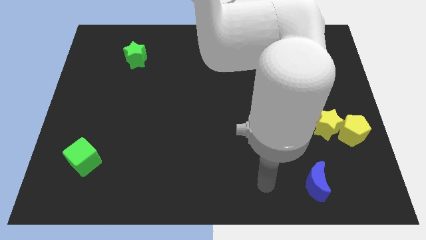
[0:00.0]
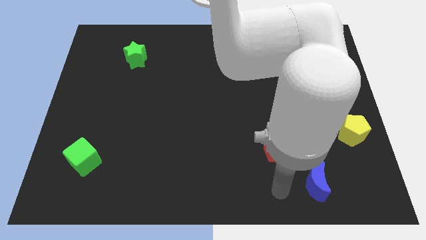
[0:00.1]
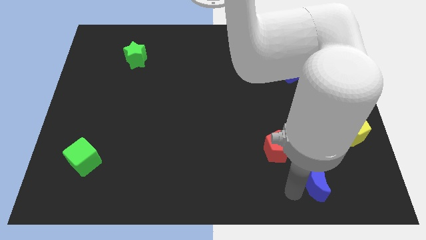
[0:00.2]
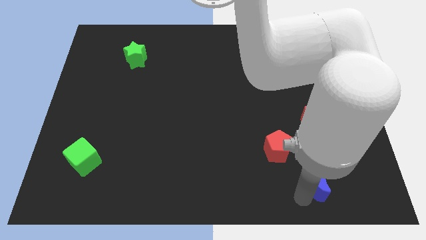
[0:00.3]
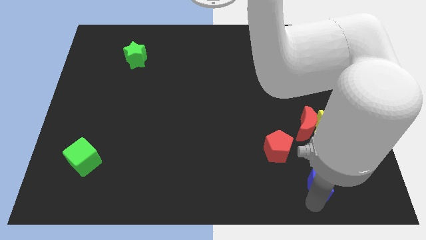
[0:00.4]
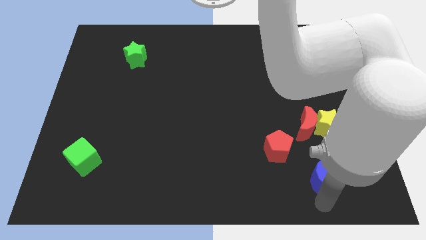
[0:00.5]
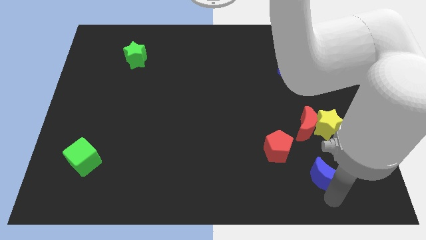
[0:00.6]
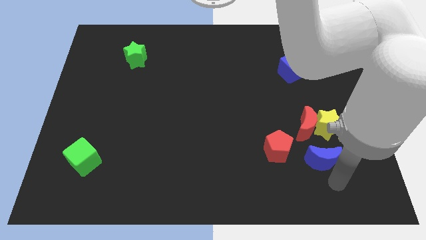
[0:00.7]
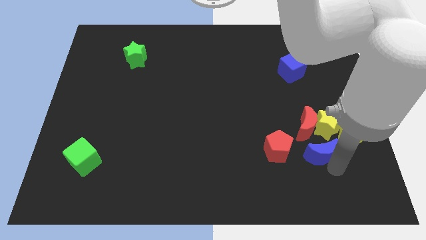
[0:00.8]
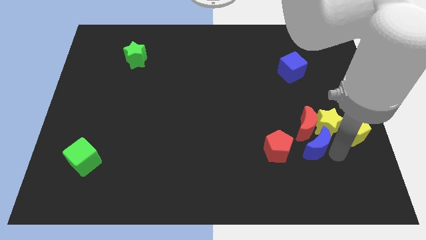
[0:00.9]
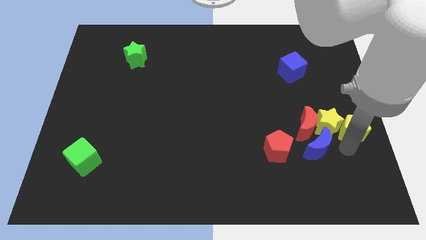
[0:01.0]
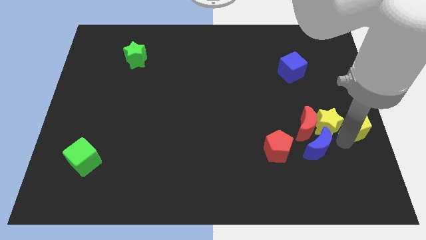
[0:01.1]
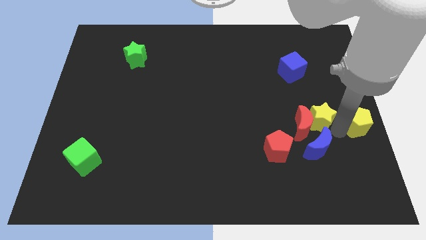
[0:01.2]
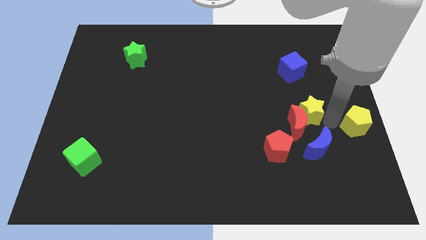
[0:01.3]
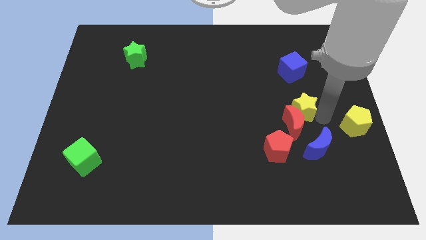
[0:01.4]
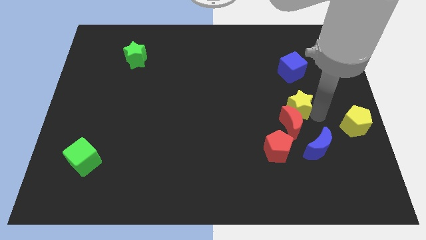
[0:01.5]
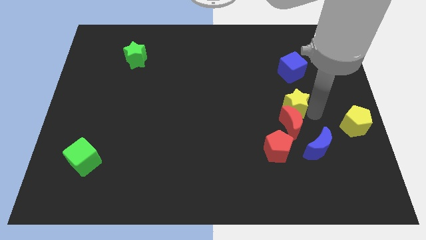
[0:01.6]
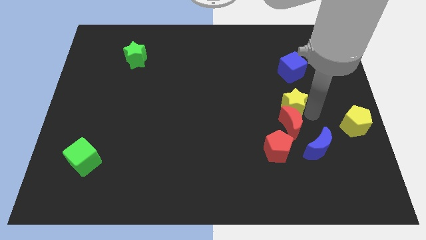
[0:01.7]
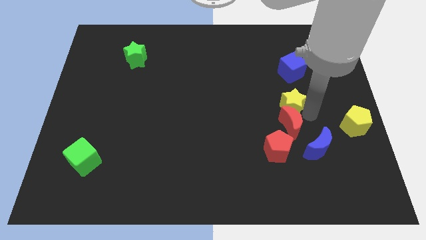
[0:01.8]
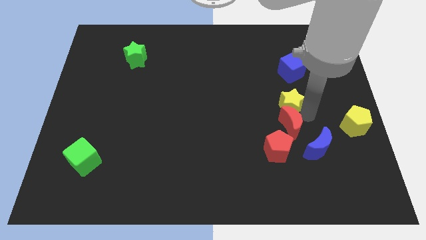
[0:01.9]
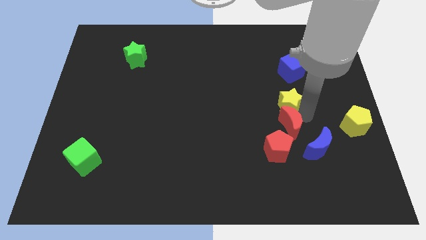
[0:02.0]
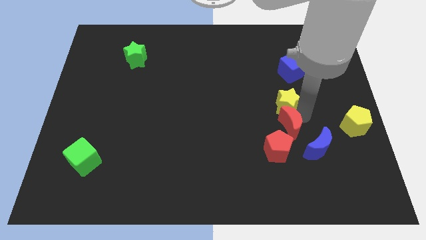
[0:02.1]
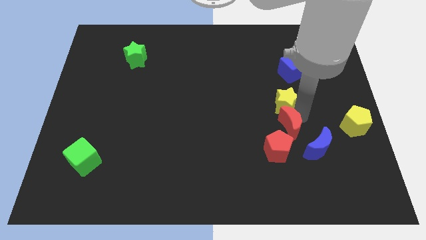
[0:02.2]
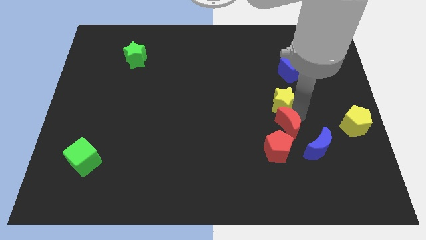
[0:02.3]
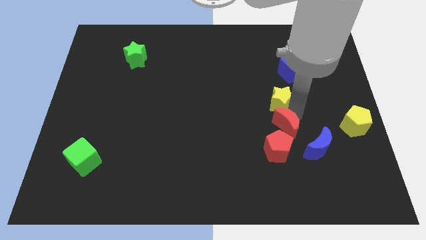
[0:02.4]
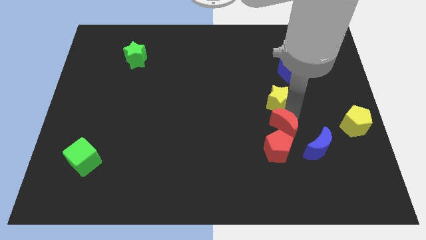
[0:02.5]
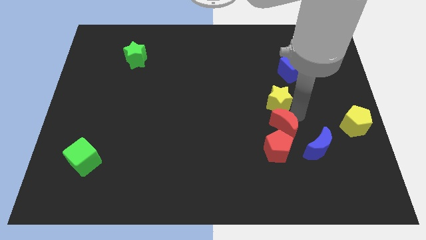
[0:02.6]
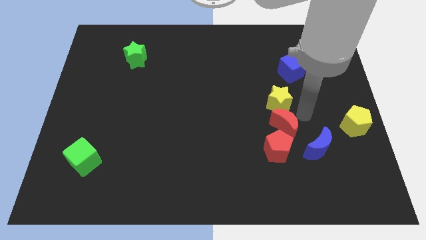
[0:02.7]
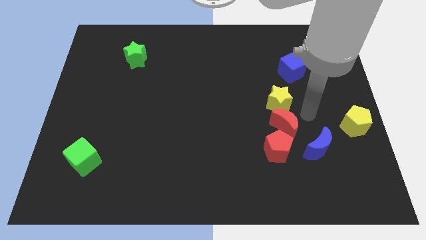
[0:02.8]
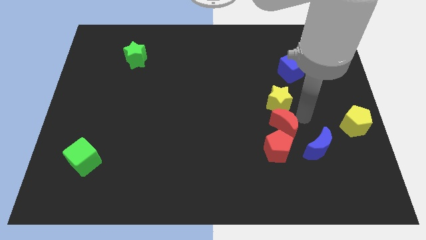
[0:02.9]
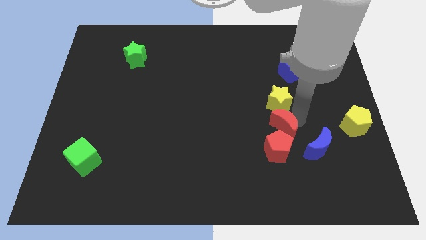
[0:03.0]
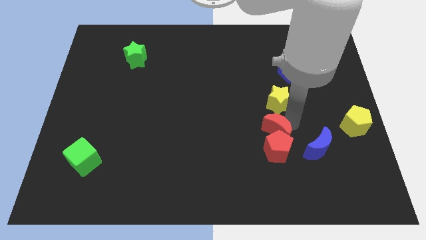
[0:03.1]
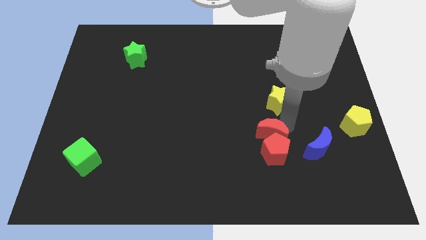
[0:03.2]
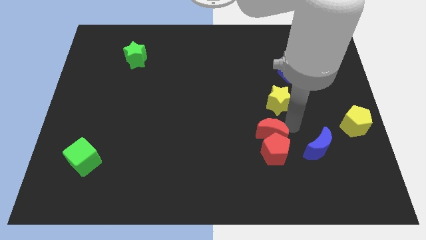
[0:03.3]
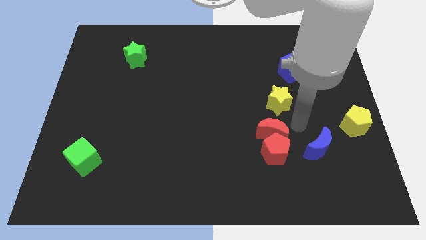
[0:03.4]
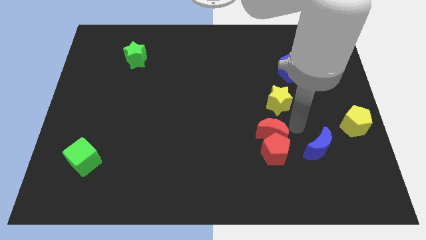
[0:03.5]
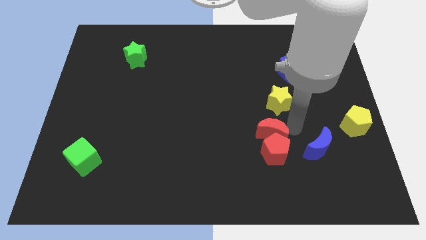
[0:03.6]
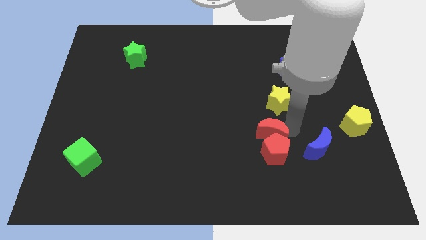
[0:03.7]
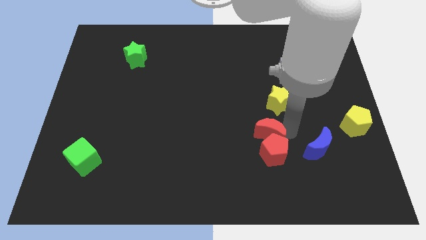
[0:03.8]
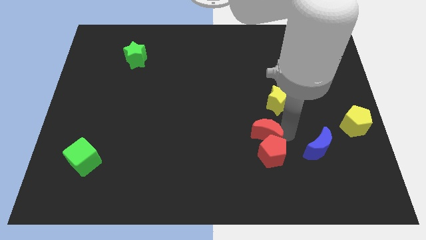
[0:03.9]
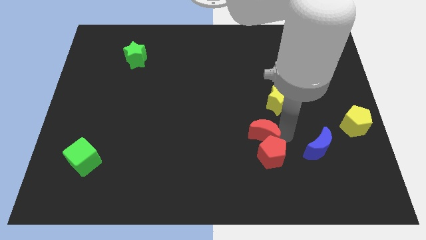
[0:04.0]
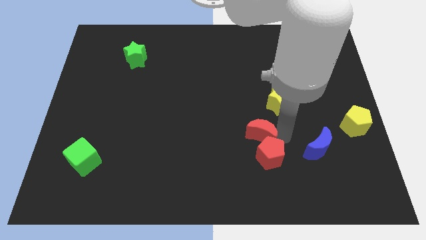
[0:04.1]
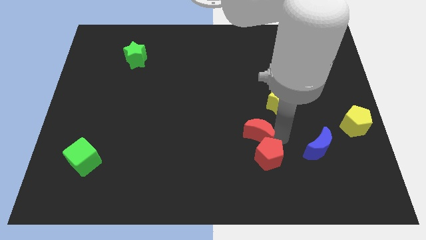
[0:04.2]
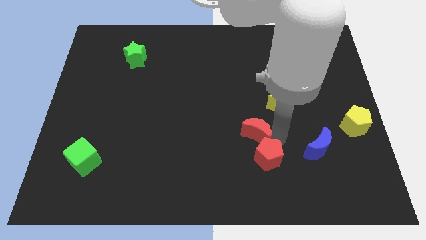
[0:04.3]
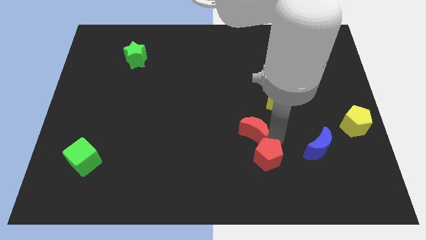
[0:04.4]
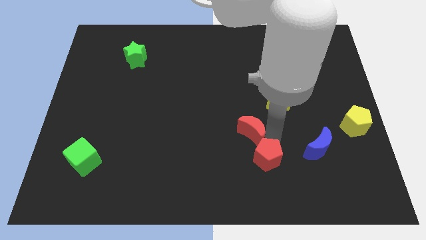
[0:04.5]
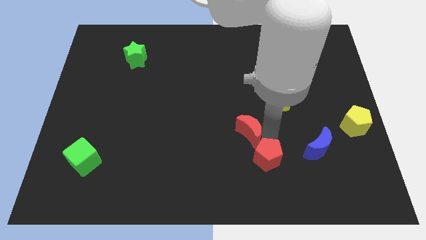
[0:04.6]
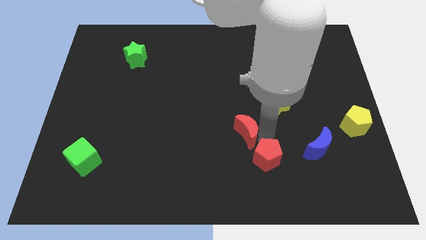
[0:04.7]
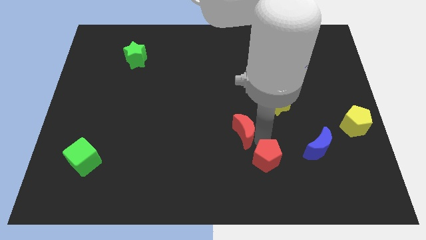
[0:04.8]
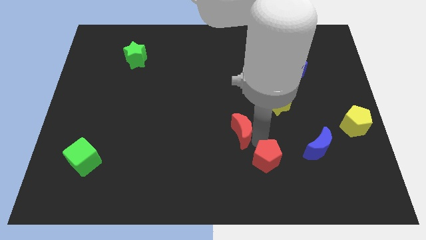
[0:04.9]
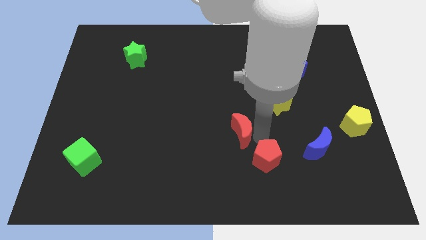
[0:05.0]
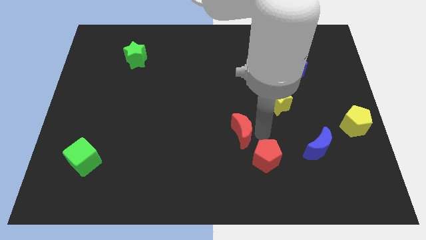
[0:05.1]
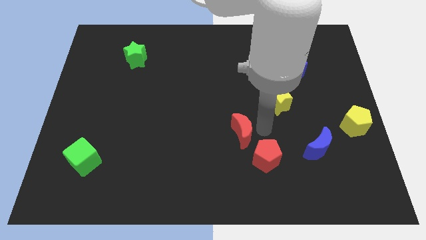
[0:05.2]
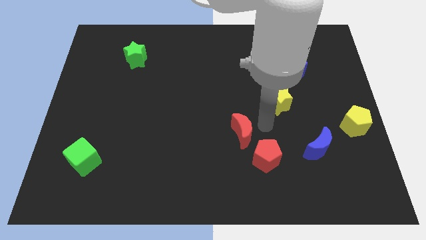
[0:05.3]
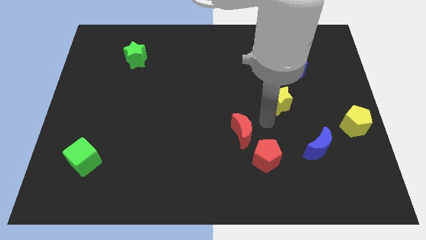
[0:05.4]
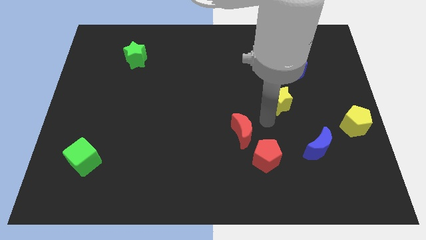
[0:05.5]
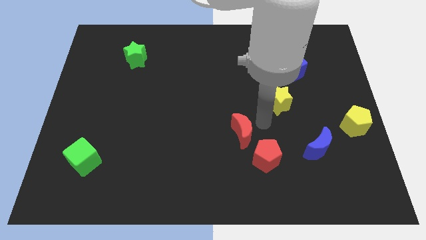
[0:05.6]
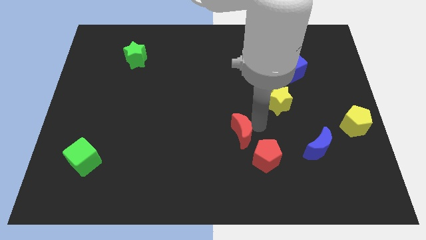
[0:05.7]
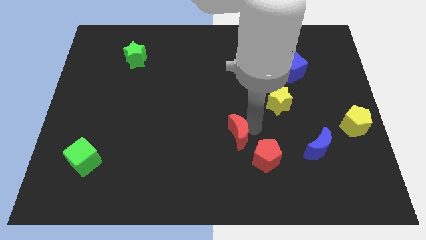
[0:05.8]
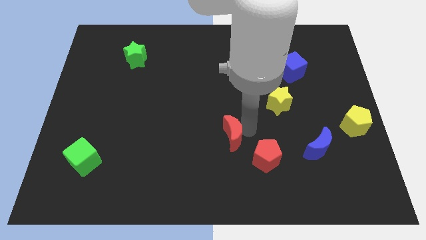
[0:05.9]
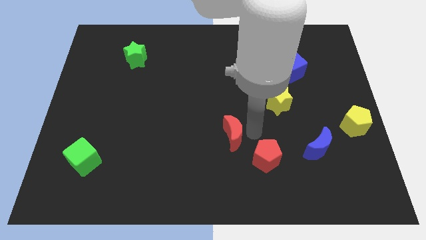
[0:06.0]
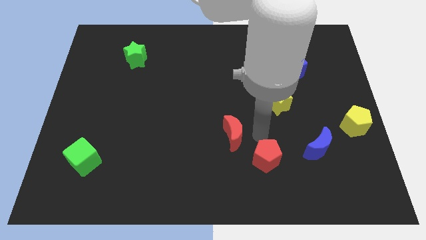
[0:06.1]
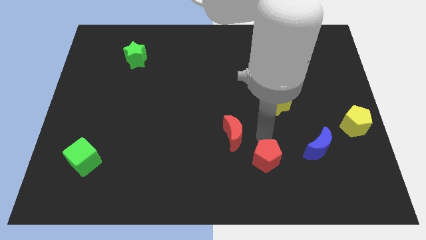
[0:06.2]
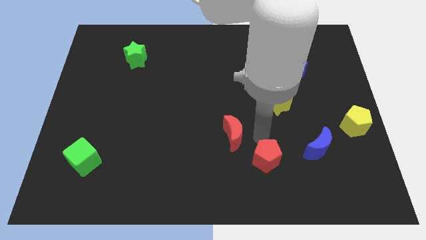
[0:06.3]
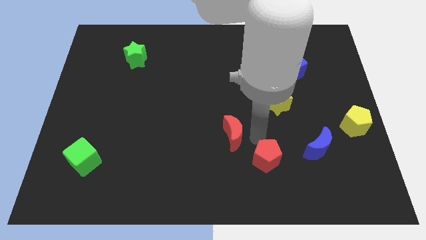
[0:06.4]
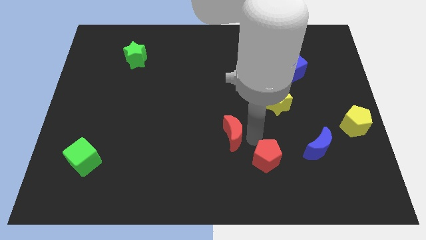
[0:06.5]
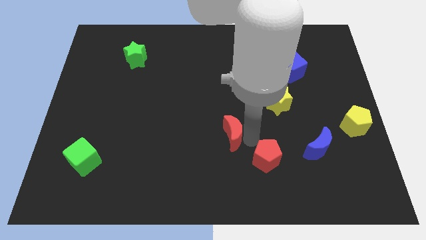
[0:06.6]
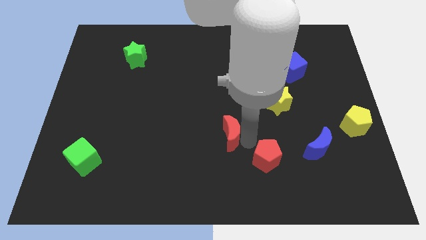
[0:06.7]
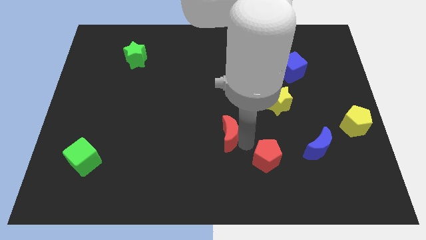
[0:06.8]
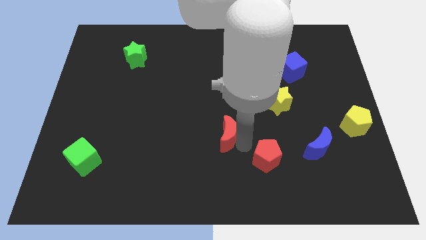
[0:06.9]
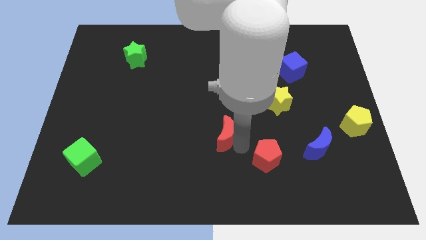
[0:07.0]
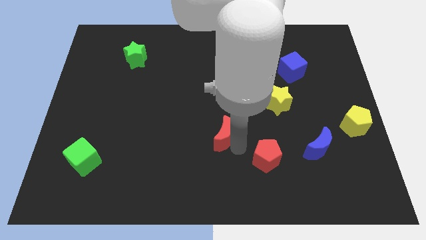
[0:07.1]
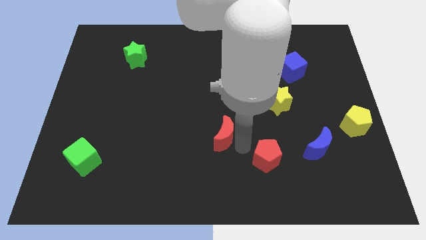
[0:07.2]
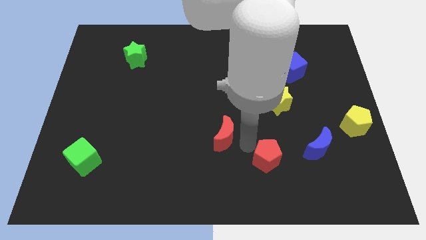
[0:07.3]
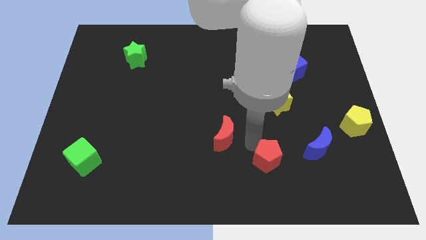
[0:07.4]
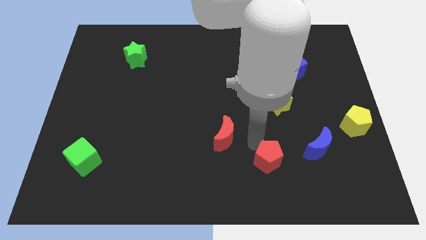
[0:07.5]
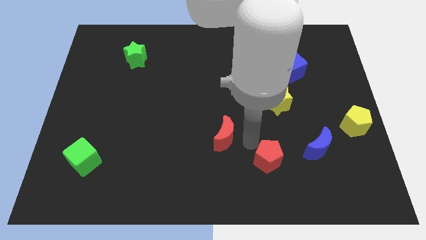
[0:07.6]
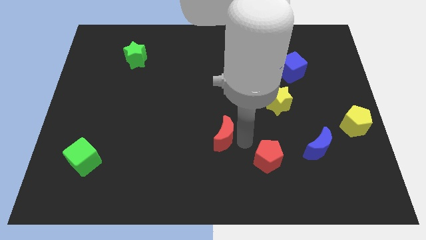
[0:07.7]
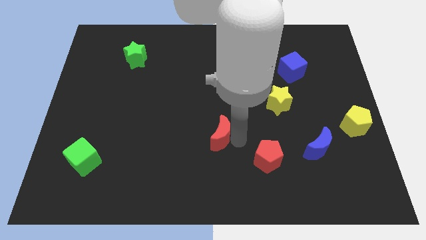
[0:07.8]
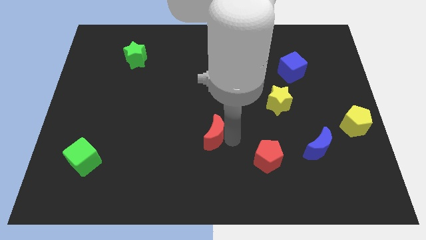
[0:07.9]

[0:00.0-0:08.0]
push the red moon to the left
